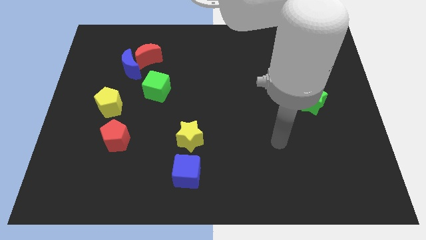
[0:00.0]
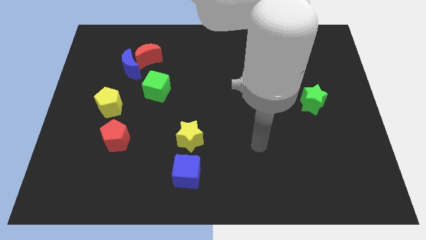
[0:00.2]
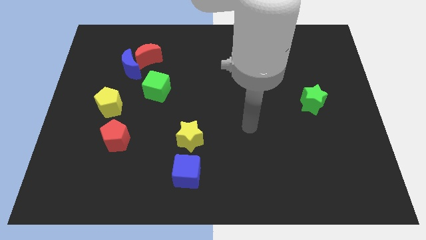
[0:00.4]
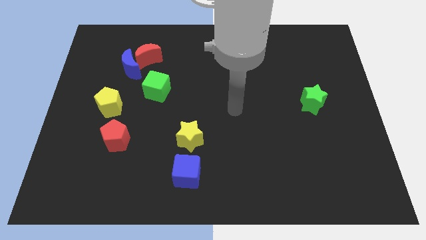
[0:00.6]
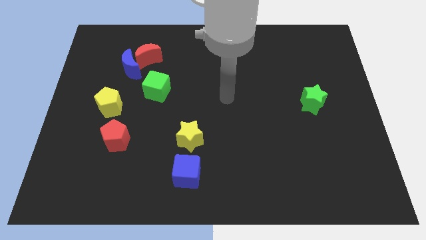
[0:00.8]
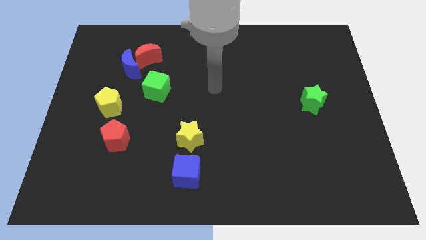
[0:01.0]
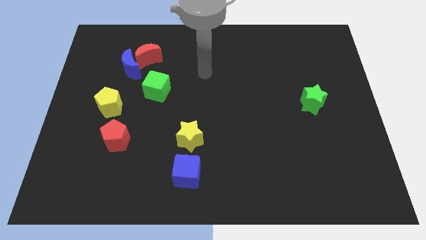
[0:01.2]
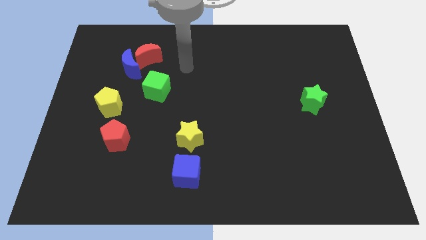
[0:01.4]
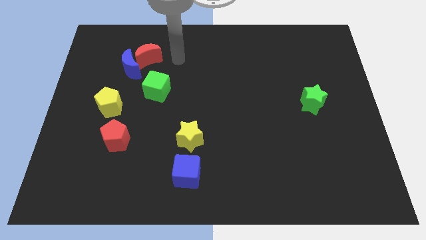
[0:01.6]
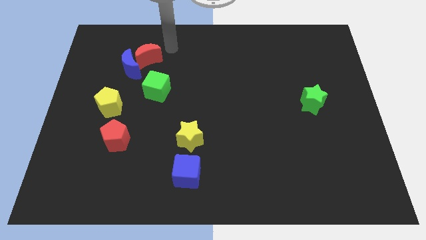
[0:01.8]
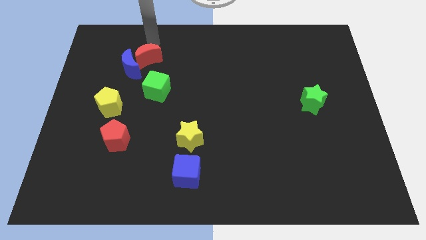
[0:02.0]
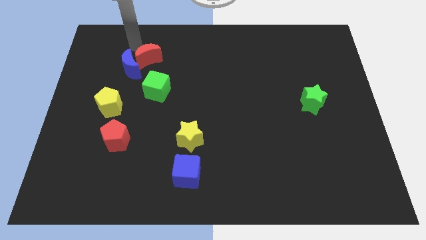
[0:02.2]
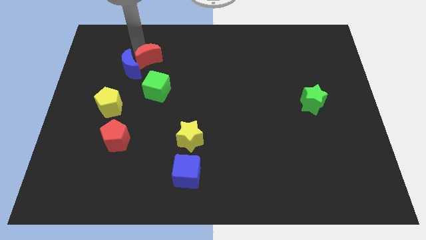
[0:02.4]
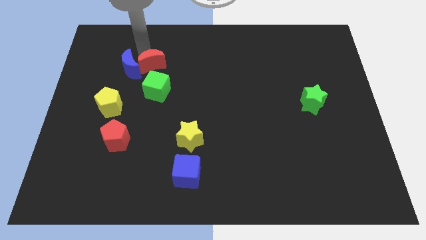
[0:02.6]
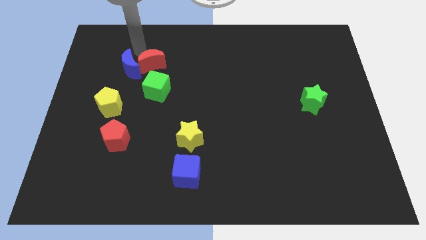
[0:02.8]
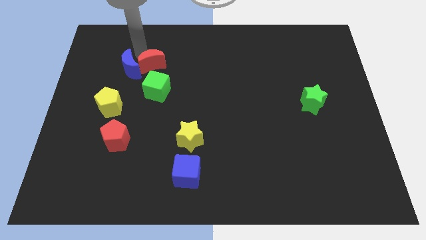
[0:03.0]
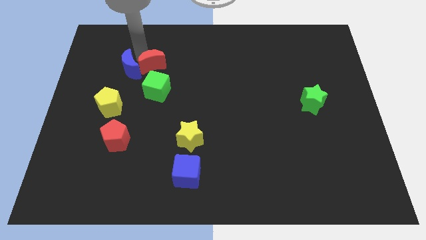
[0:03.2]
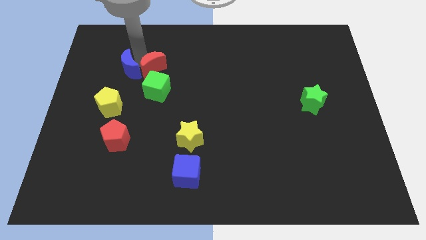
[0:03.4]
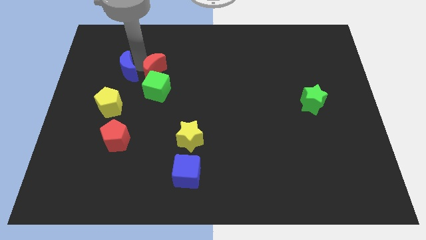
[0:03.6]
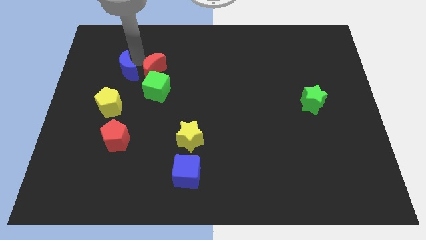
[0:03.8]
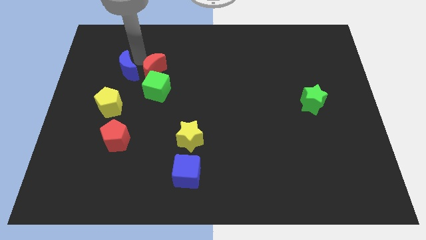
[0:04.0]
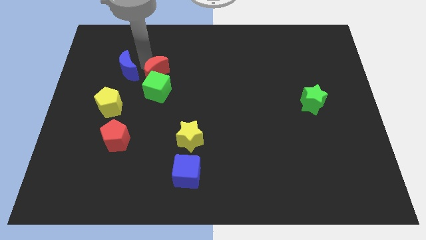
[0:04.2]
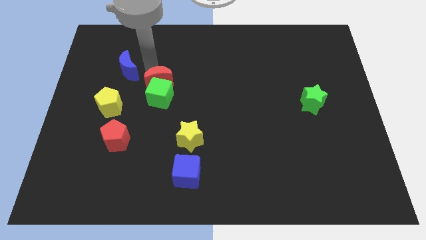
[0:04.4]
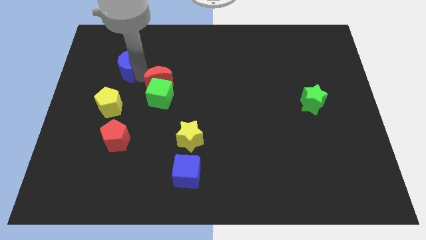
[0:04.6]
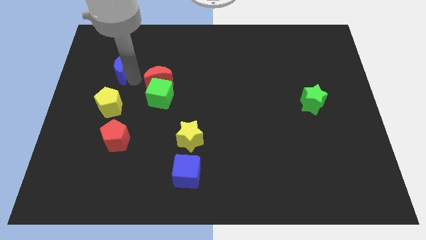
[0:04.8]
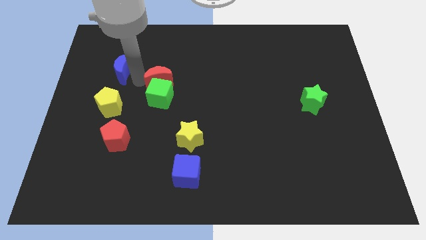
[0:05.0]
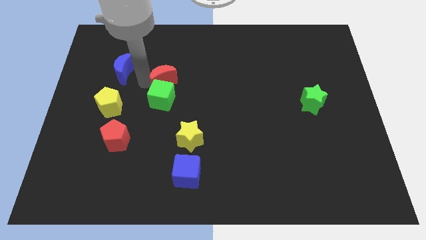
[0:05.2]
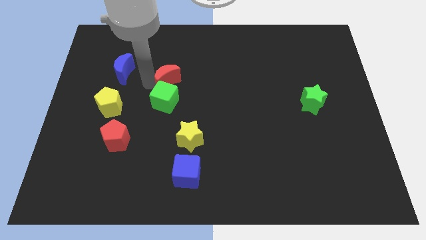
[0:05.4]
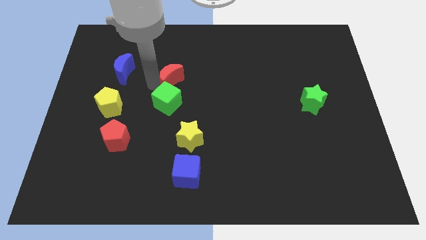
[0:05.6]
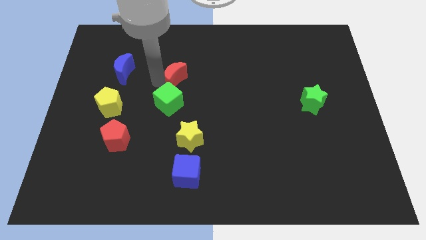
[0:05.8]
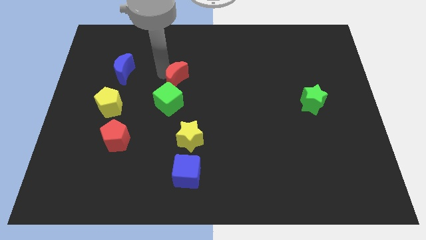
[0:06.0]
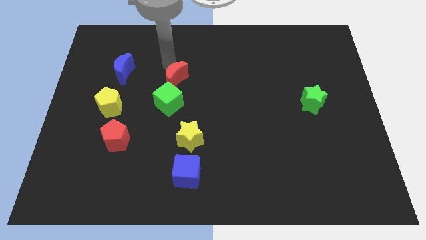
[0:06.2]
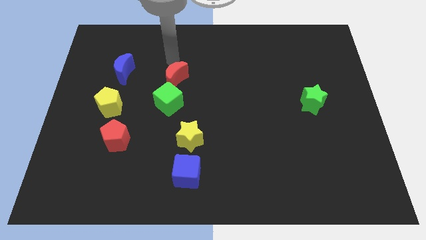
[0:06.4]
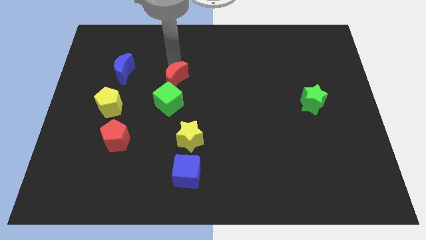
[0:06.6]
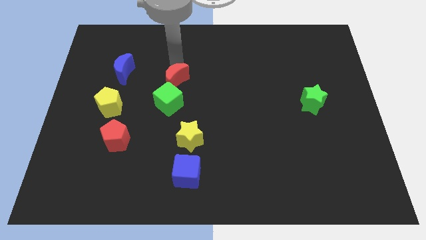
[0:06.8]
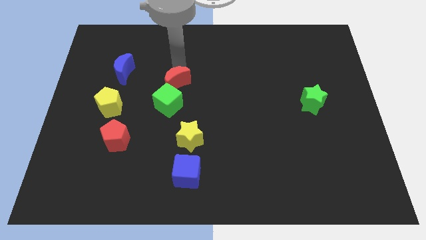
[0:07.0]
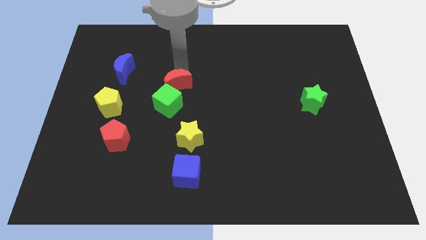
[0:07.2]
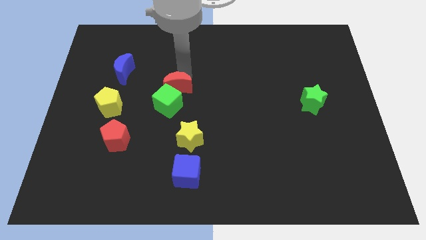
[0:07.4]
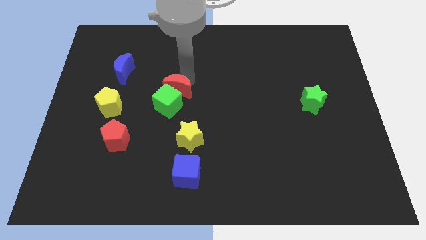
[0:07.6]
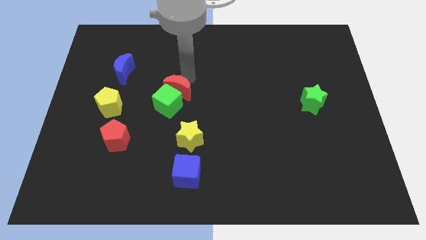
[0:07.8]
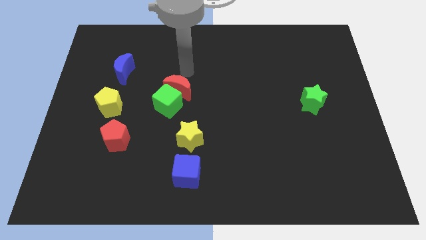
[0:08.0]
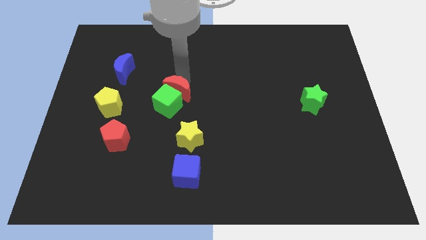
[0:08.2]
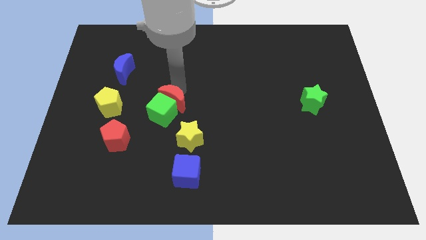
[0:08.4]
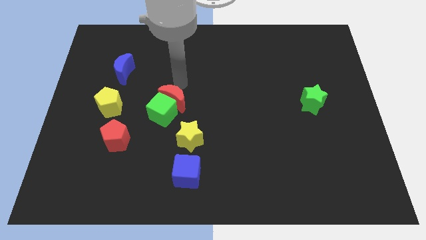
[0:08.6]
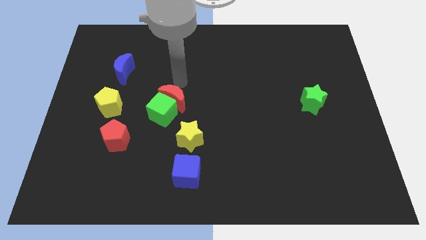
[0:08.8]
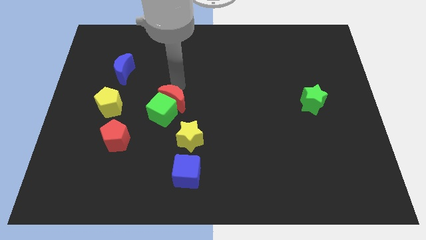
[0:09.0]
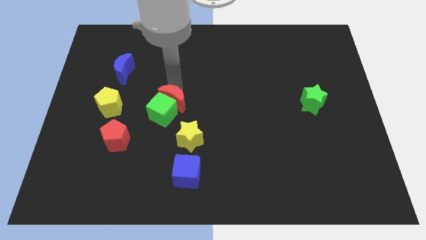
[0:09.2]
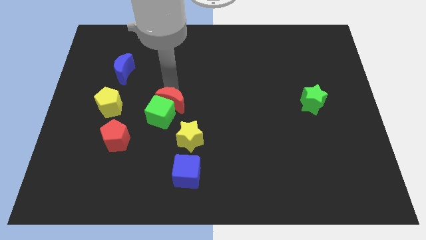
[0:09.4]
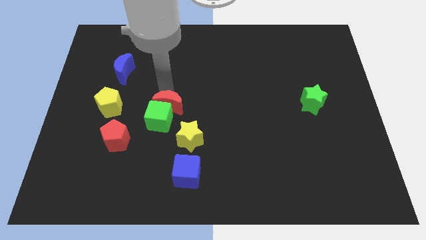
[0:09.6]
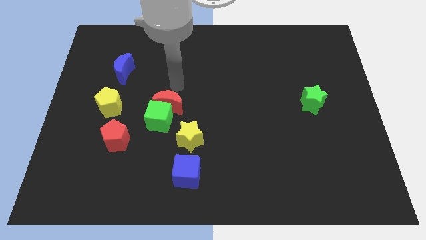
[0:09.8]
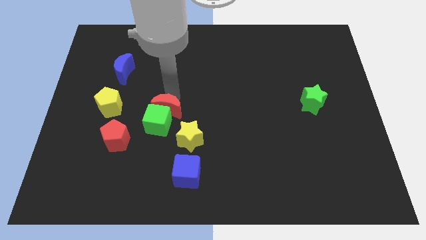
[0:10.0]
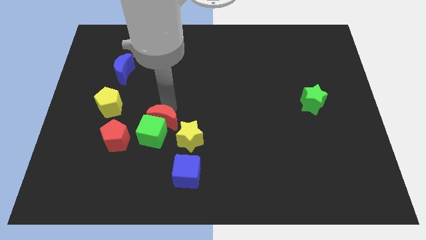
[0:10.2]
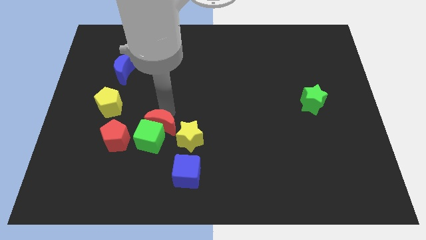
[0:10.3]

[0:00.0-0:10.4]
slide the red moon down

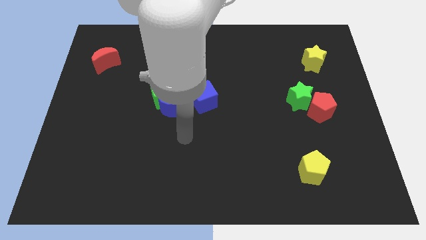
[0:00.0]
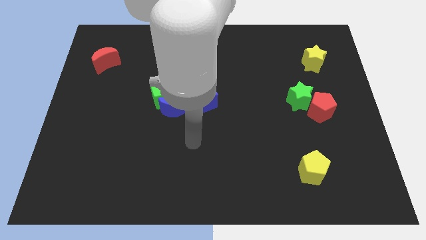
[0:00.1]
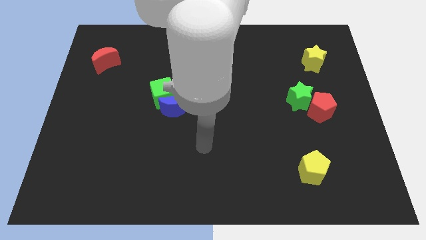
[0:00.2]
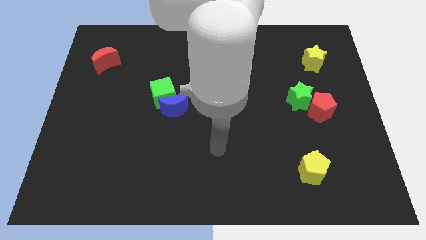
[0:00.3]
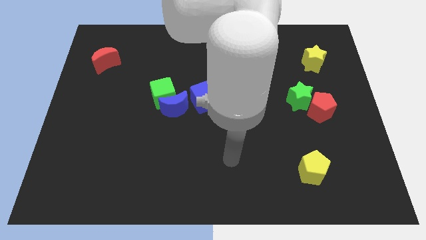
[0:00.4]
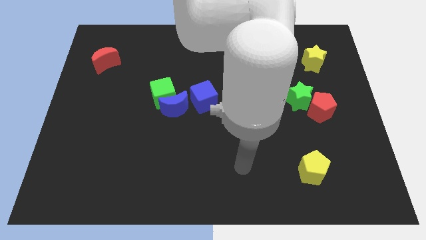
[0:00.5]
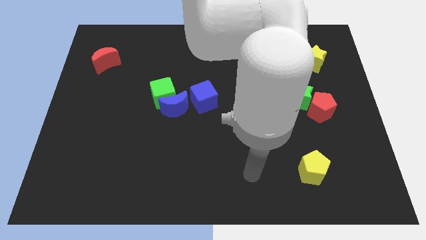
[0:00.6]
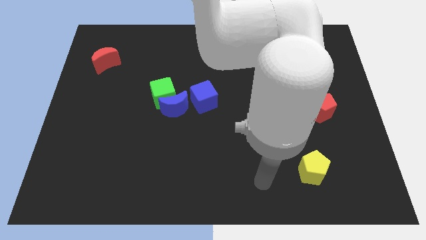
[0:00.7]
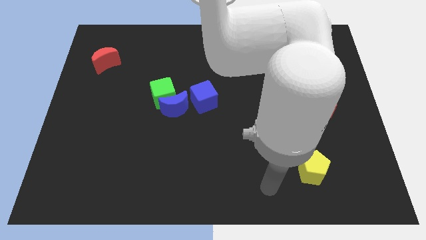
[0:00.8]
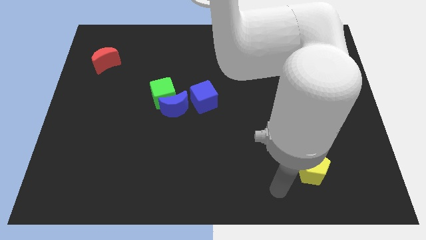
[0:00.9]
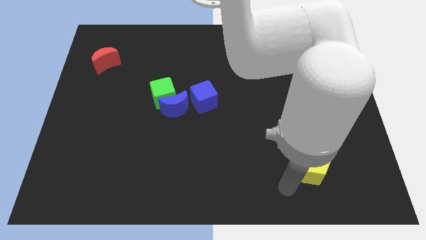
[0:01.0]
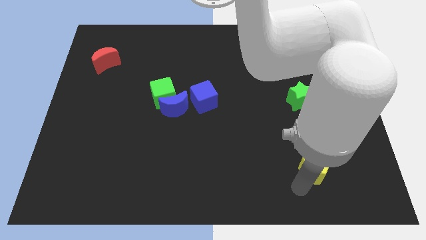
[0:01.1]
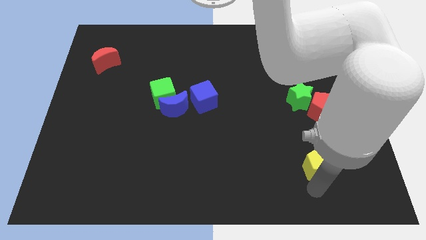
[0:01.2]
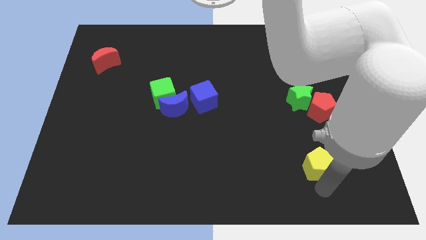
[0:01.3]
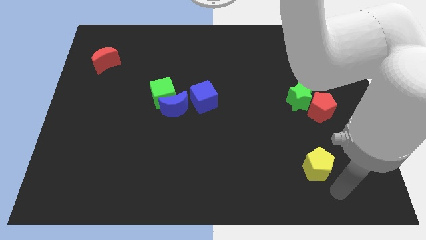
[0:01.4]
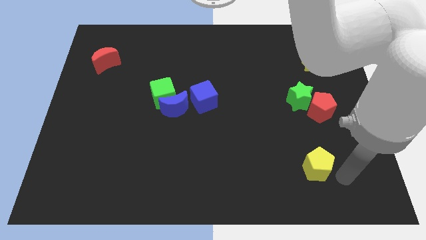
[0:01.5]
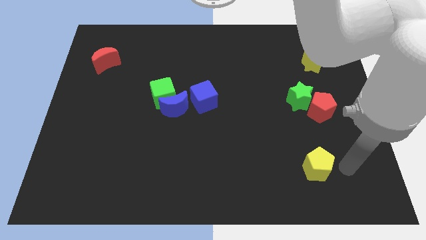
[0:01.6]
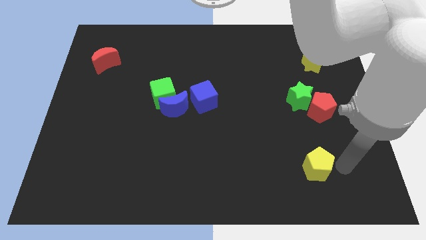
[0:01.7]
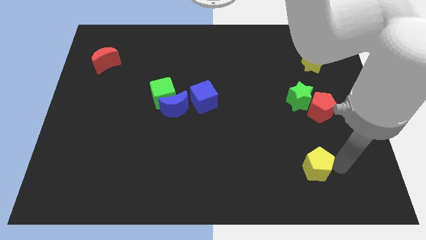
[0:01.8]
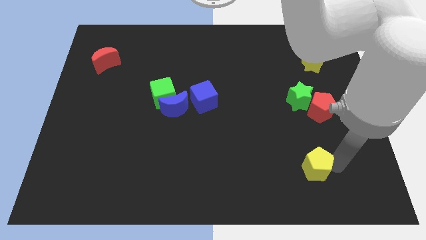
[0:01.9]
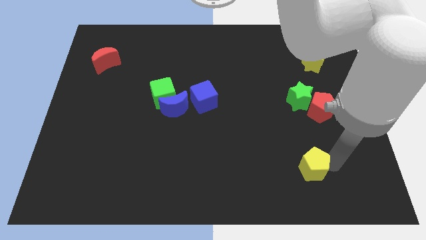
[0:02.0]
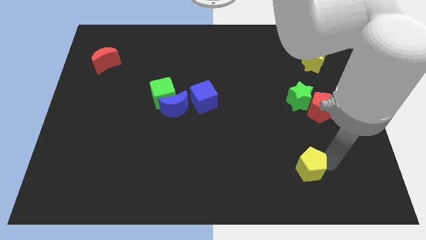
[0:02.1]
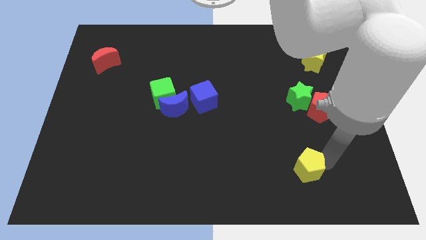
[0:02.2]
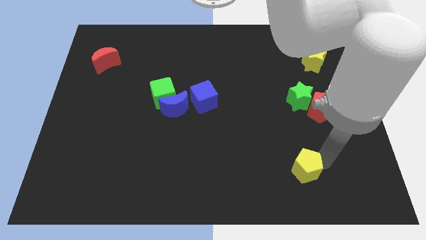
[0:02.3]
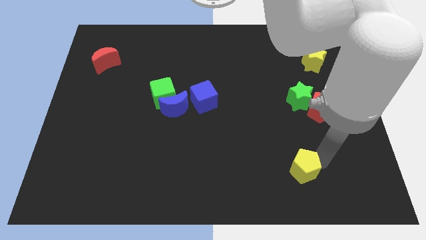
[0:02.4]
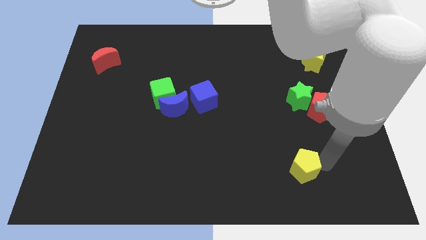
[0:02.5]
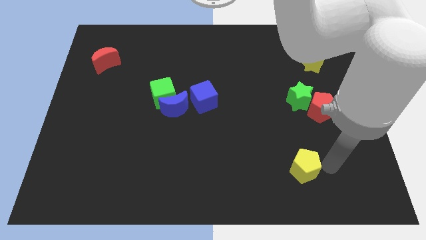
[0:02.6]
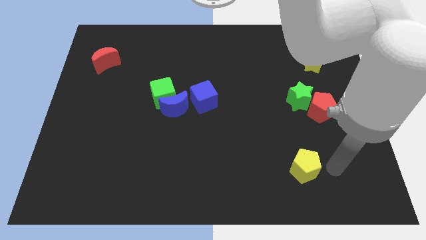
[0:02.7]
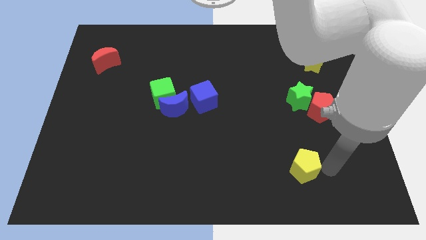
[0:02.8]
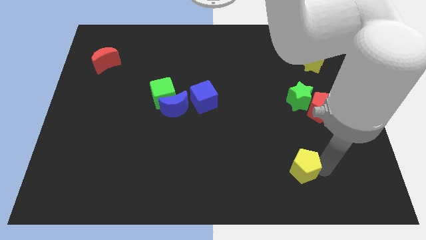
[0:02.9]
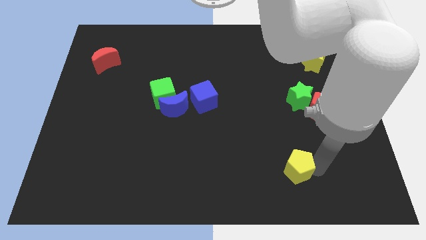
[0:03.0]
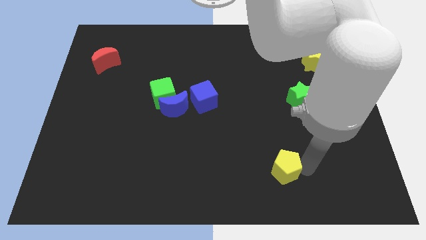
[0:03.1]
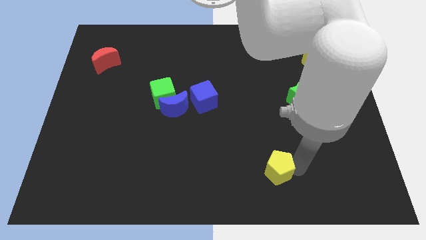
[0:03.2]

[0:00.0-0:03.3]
push the yellow pentagon a bit left
